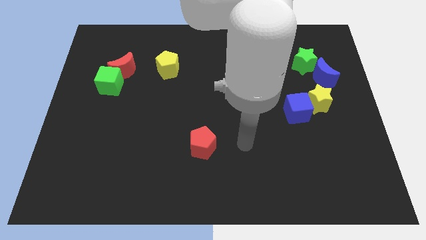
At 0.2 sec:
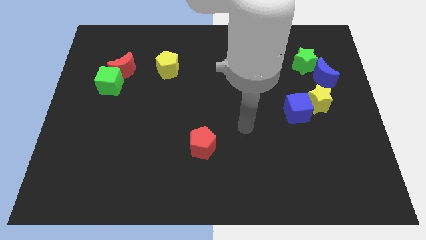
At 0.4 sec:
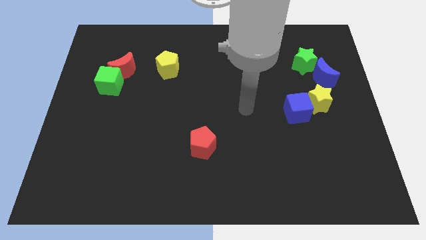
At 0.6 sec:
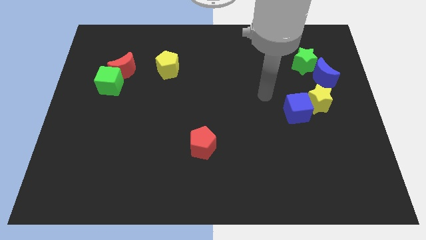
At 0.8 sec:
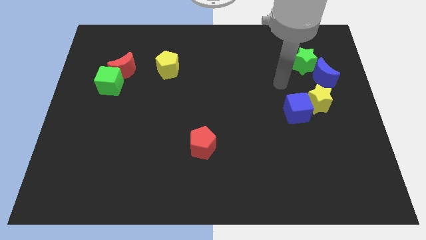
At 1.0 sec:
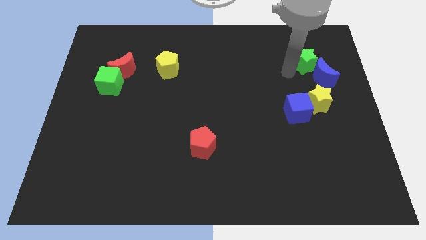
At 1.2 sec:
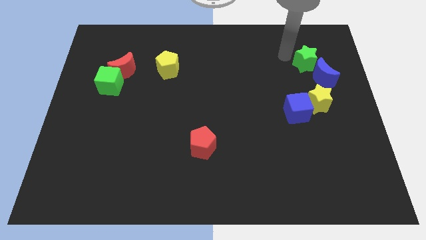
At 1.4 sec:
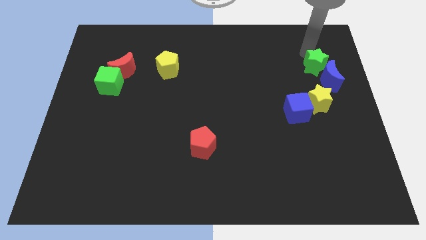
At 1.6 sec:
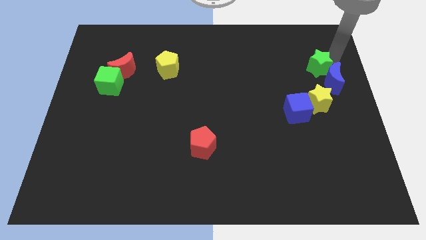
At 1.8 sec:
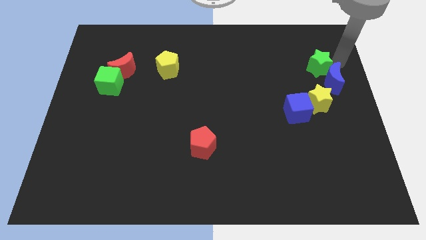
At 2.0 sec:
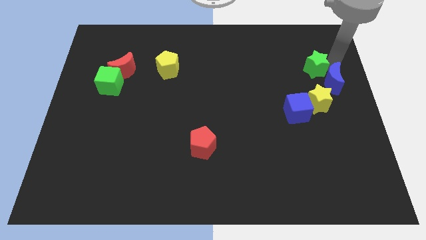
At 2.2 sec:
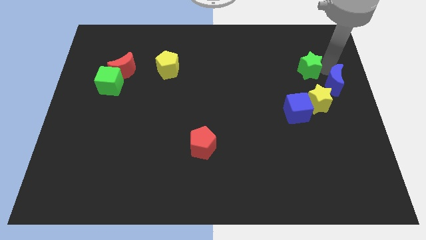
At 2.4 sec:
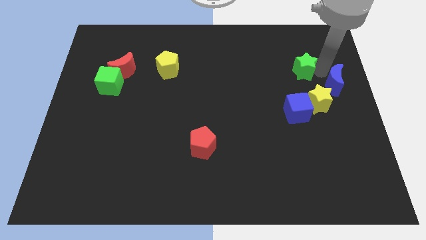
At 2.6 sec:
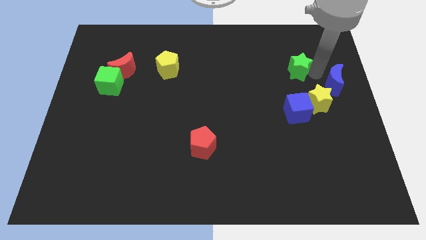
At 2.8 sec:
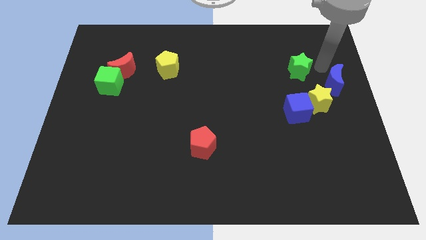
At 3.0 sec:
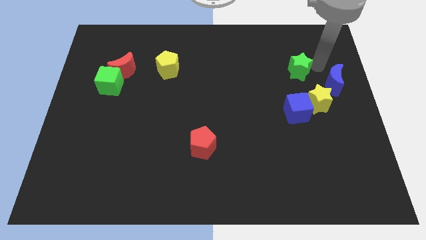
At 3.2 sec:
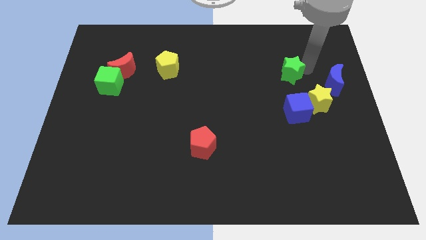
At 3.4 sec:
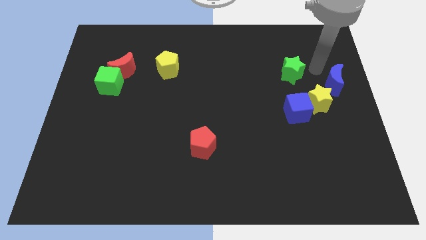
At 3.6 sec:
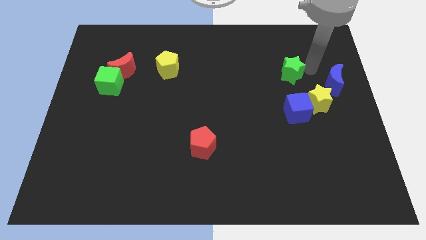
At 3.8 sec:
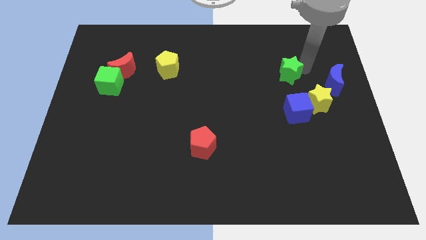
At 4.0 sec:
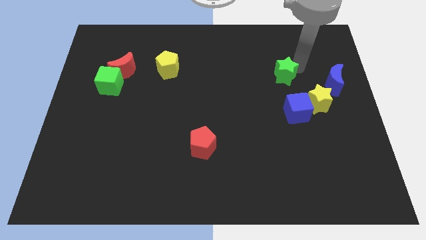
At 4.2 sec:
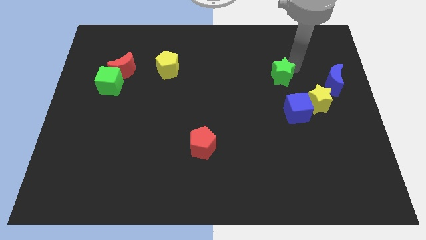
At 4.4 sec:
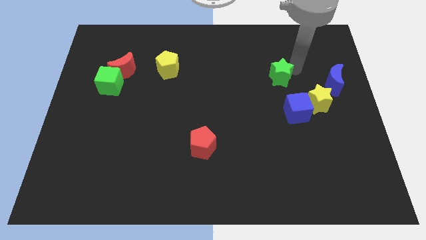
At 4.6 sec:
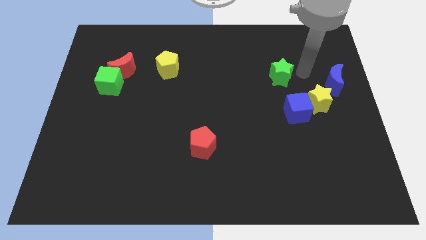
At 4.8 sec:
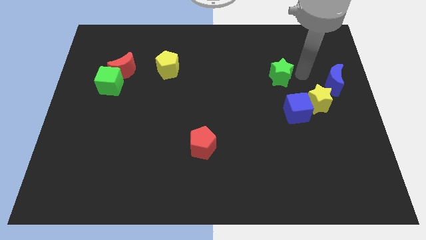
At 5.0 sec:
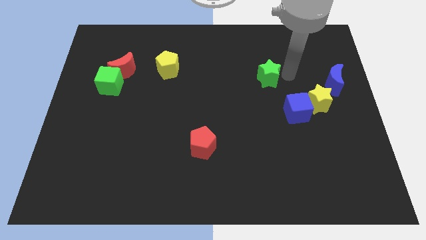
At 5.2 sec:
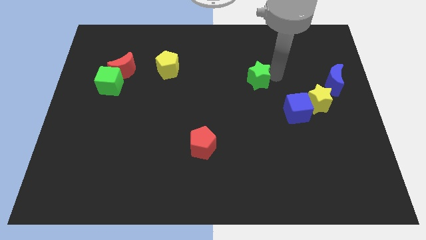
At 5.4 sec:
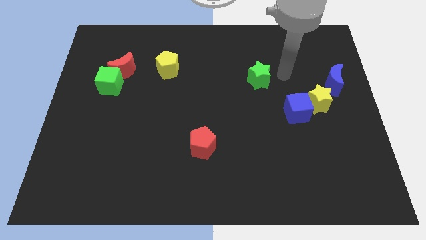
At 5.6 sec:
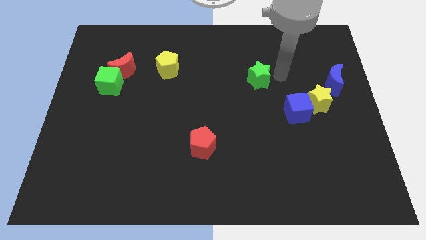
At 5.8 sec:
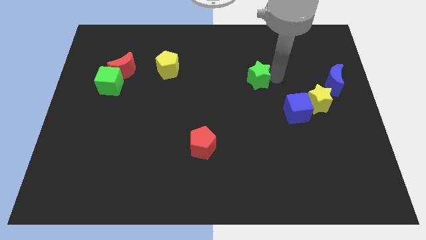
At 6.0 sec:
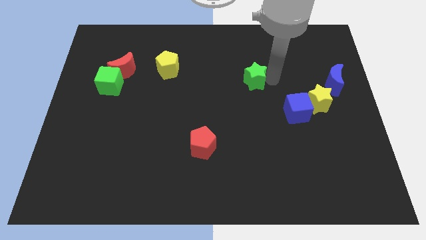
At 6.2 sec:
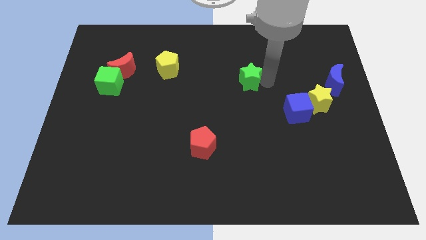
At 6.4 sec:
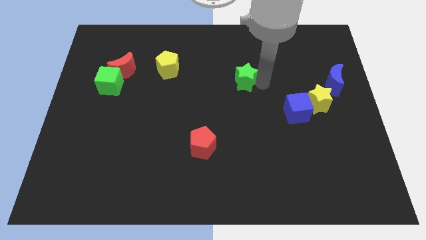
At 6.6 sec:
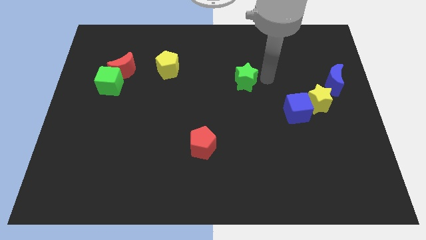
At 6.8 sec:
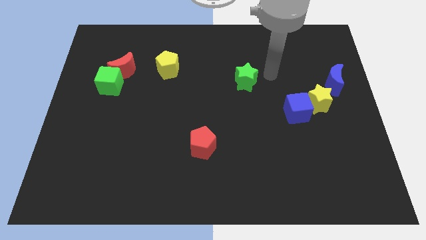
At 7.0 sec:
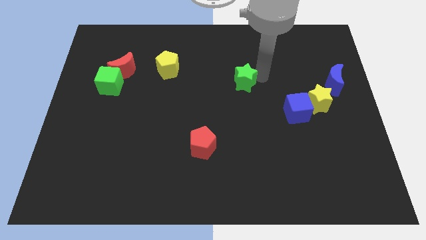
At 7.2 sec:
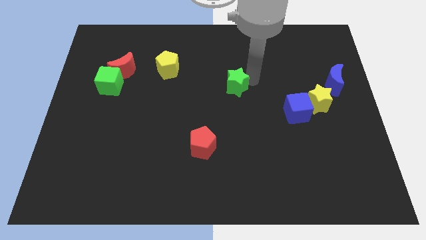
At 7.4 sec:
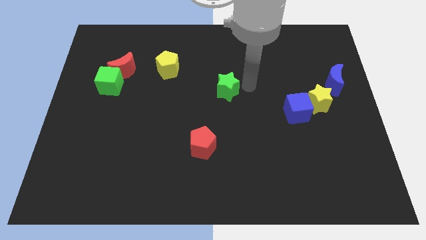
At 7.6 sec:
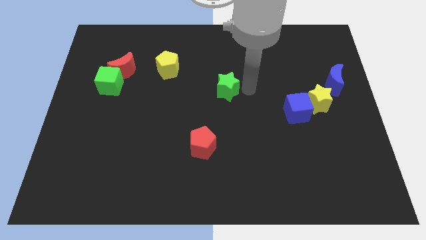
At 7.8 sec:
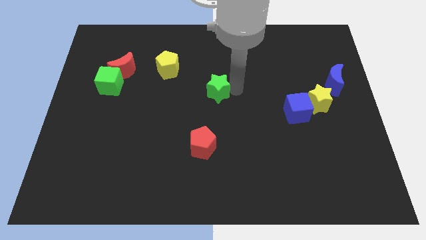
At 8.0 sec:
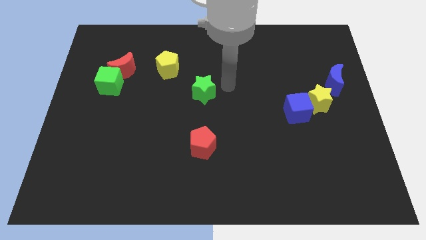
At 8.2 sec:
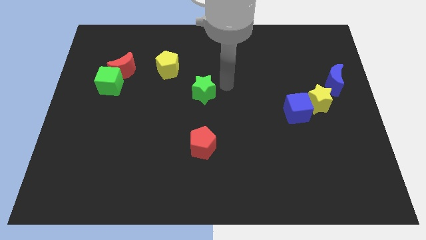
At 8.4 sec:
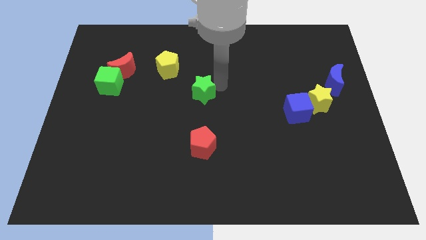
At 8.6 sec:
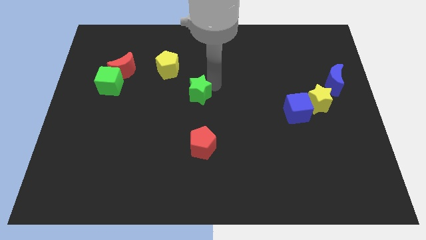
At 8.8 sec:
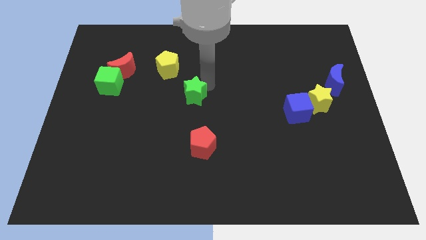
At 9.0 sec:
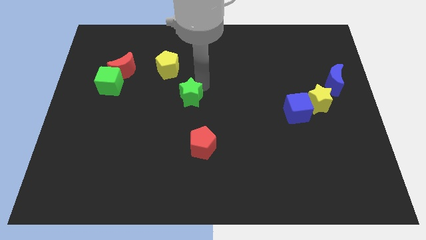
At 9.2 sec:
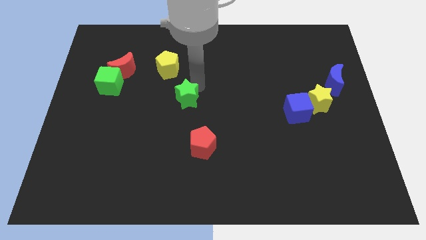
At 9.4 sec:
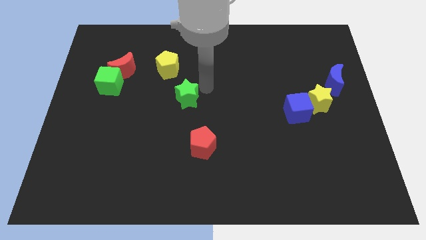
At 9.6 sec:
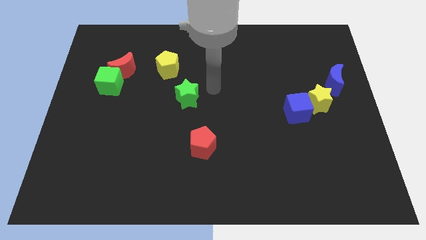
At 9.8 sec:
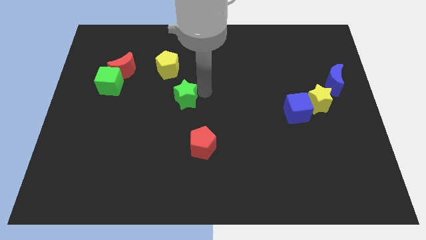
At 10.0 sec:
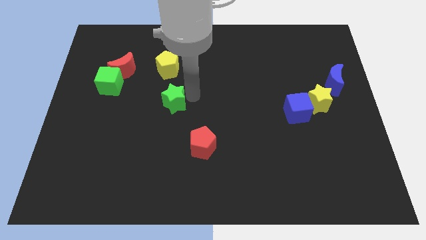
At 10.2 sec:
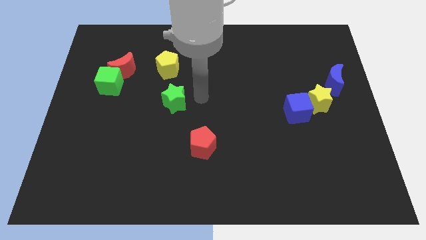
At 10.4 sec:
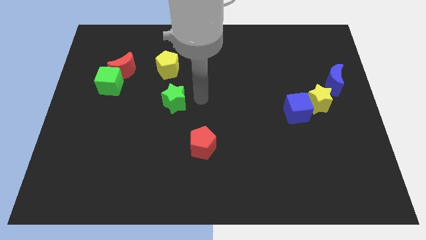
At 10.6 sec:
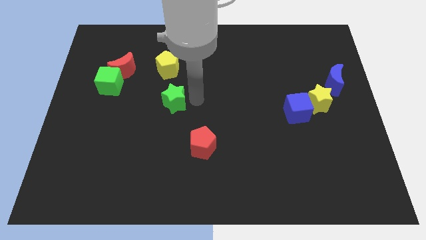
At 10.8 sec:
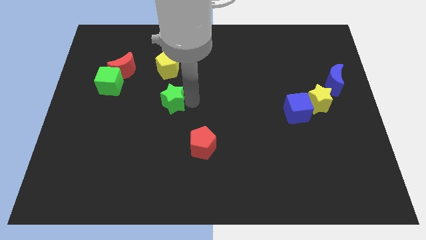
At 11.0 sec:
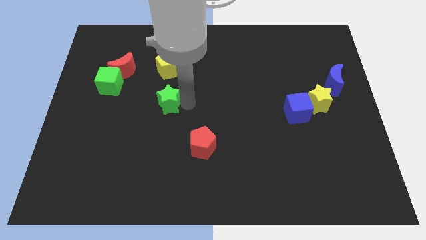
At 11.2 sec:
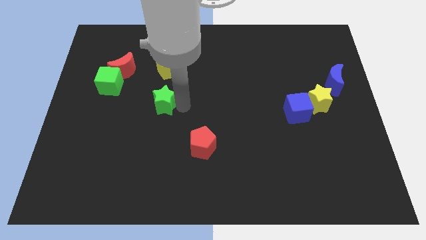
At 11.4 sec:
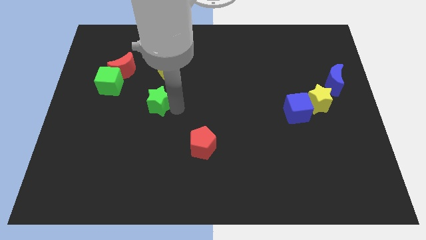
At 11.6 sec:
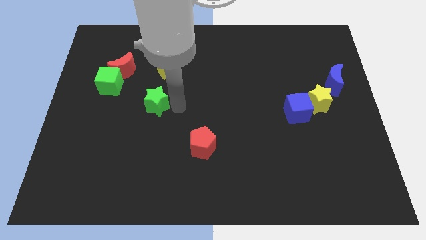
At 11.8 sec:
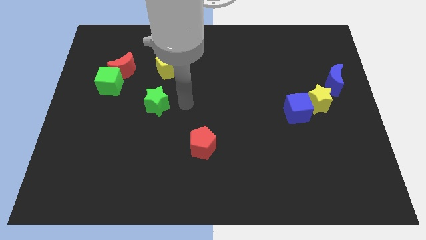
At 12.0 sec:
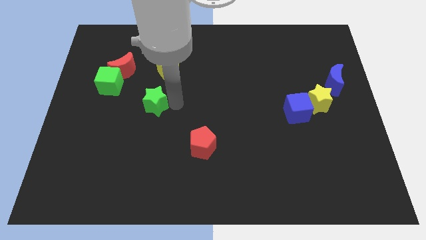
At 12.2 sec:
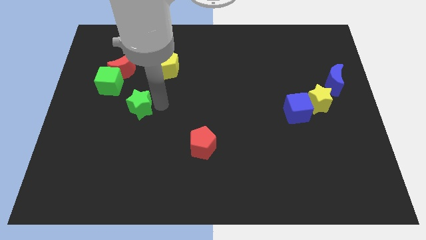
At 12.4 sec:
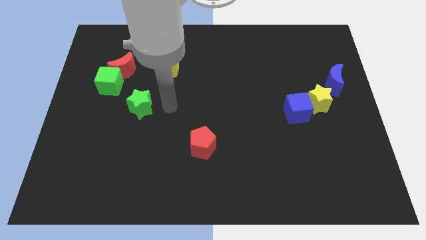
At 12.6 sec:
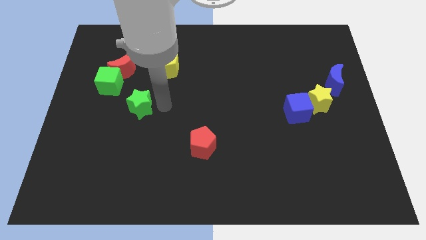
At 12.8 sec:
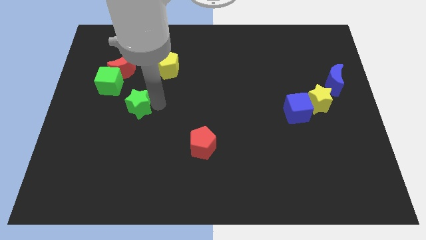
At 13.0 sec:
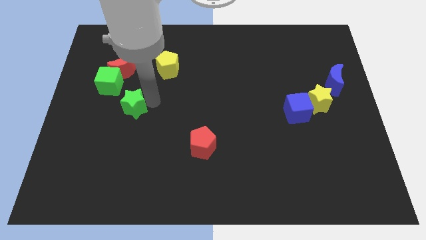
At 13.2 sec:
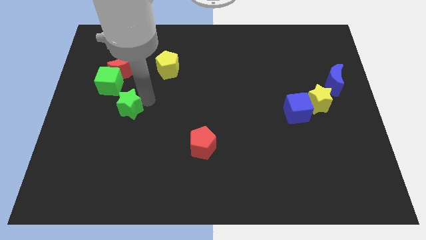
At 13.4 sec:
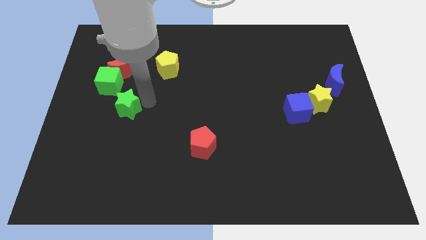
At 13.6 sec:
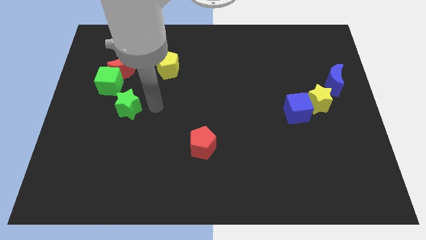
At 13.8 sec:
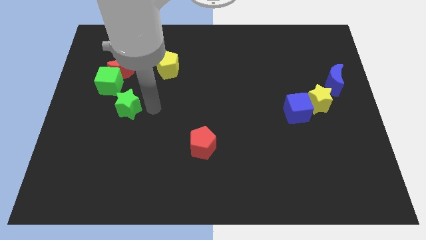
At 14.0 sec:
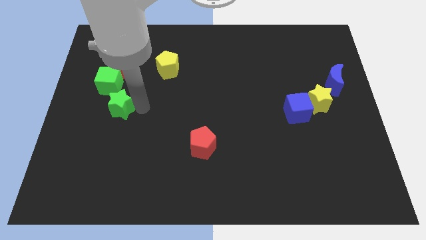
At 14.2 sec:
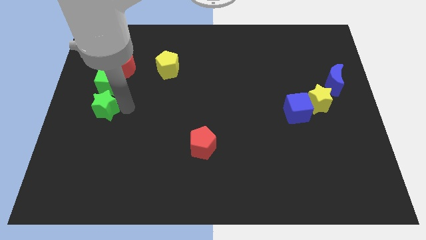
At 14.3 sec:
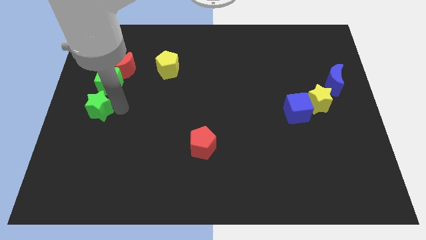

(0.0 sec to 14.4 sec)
push the green star to the left side
